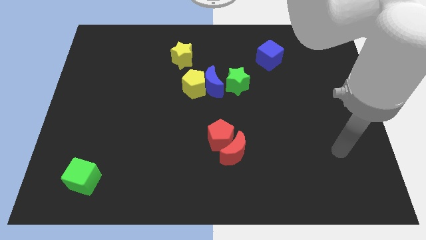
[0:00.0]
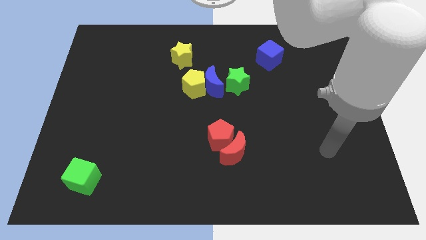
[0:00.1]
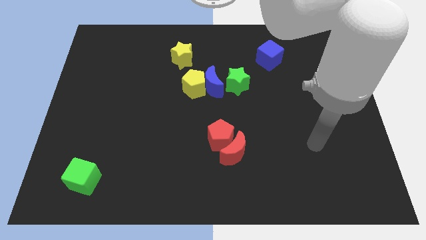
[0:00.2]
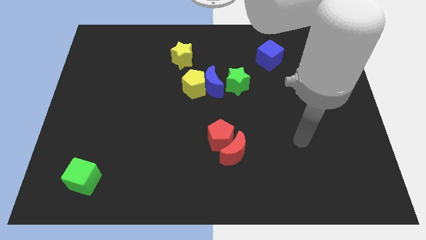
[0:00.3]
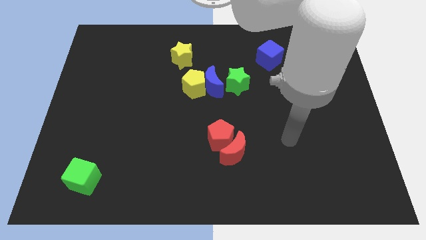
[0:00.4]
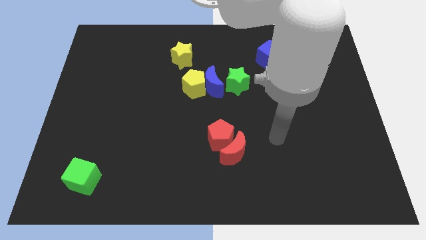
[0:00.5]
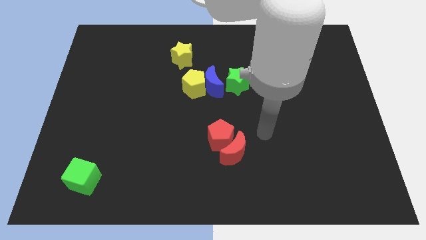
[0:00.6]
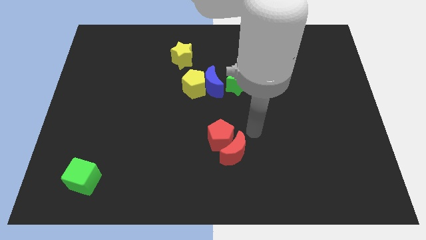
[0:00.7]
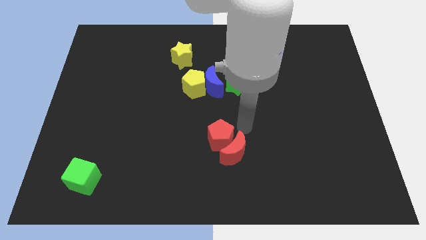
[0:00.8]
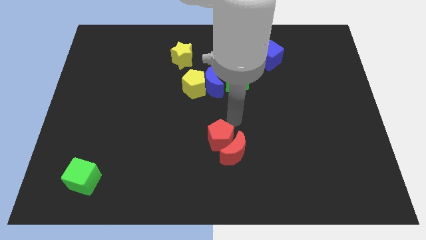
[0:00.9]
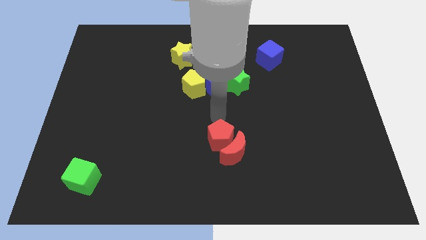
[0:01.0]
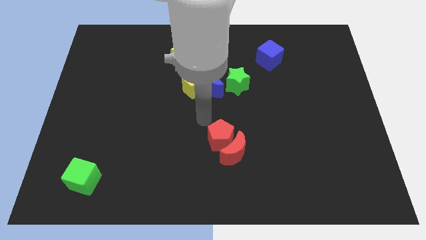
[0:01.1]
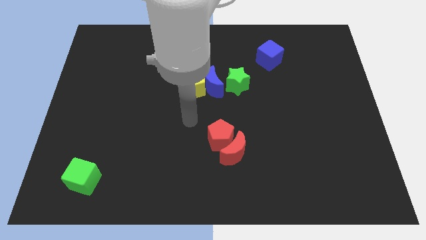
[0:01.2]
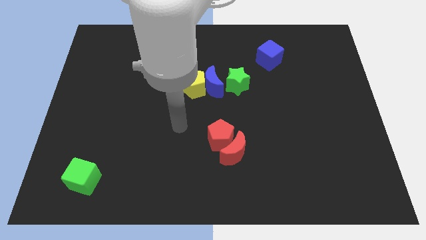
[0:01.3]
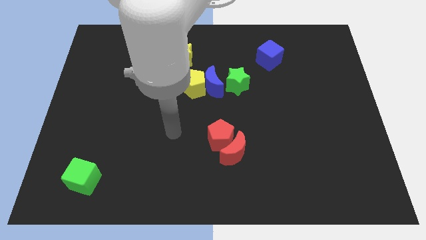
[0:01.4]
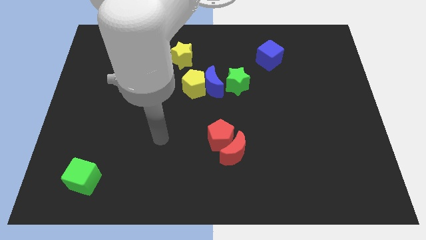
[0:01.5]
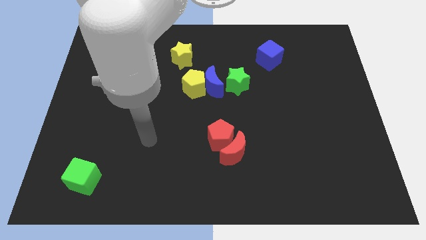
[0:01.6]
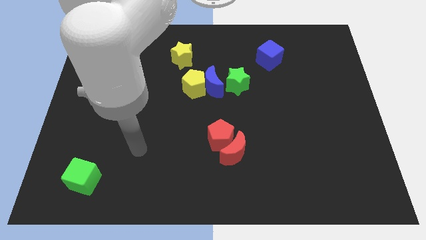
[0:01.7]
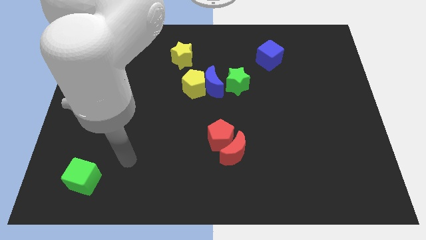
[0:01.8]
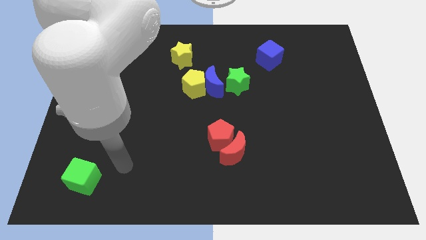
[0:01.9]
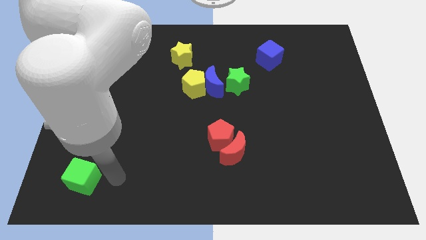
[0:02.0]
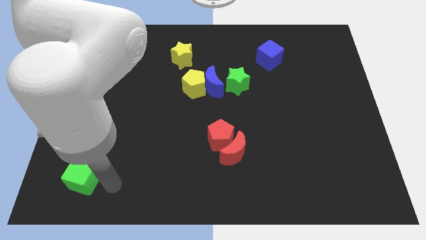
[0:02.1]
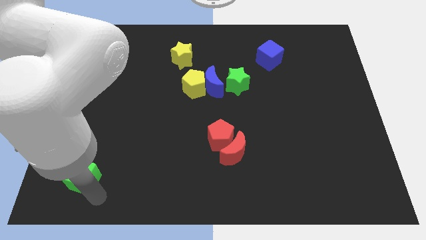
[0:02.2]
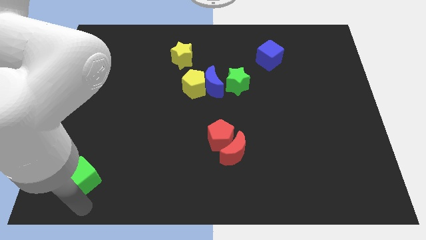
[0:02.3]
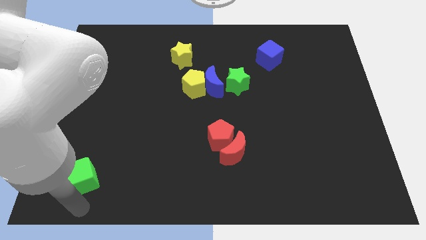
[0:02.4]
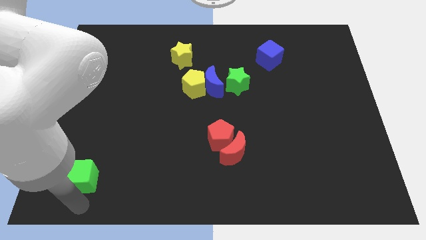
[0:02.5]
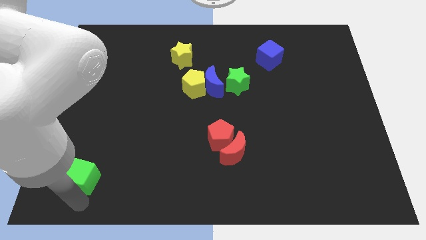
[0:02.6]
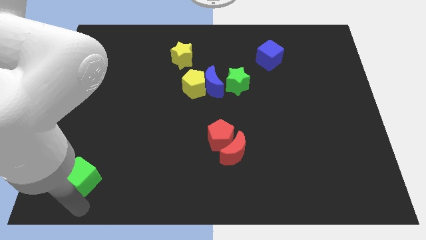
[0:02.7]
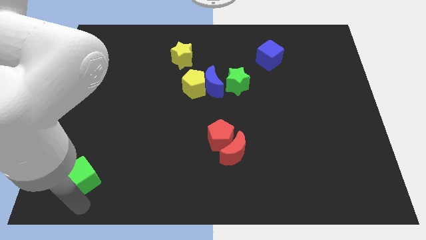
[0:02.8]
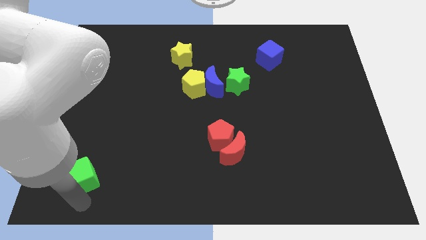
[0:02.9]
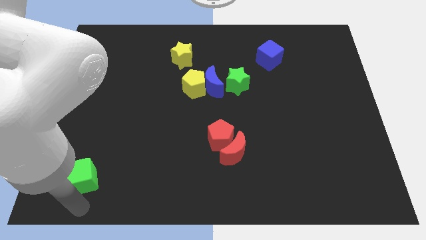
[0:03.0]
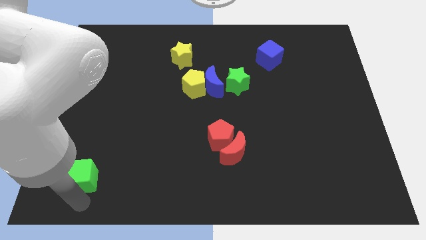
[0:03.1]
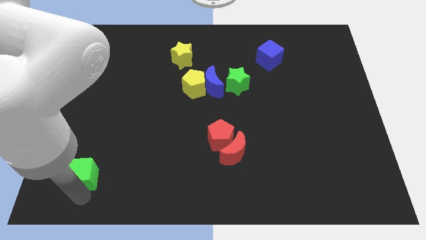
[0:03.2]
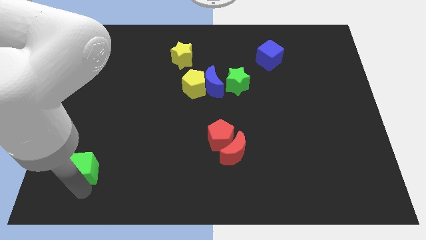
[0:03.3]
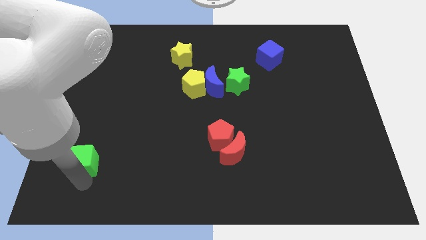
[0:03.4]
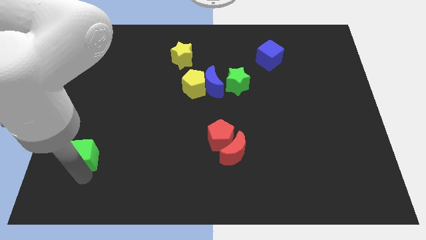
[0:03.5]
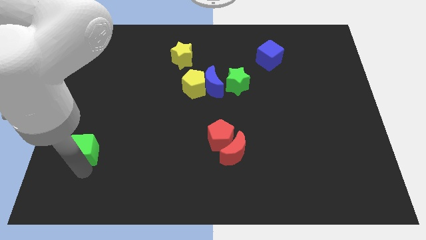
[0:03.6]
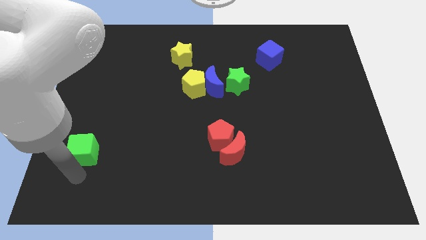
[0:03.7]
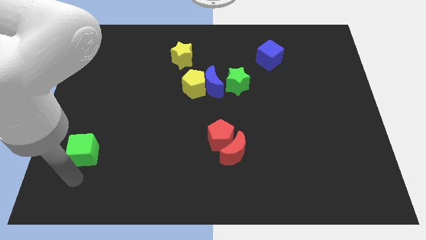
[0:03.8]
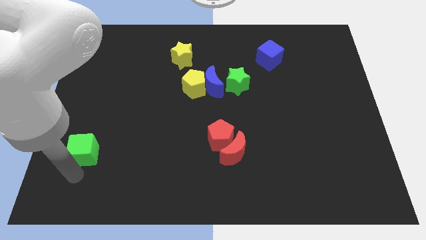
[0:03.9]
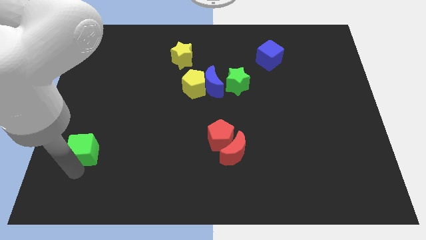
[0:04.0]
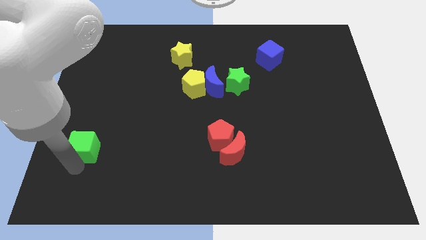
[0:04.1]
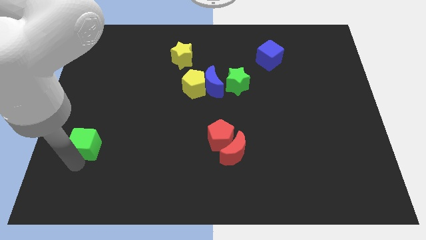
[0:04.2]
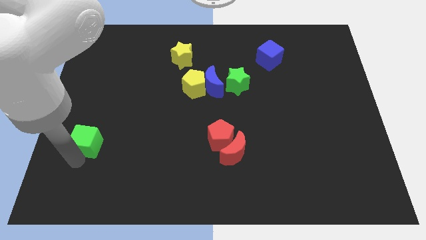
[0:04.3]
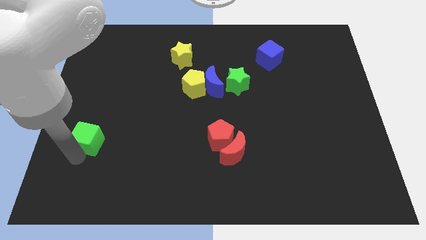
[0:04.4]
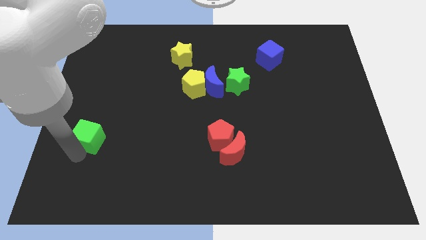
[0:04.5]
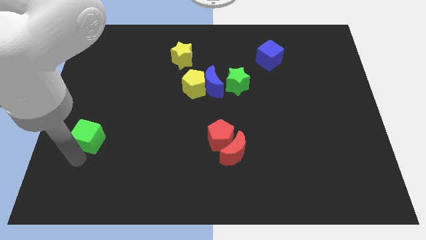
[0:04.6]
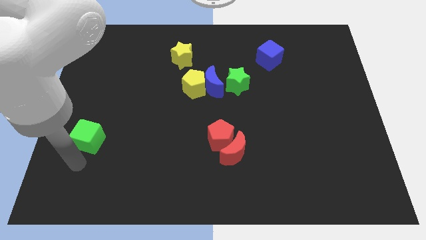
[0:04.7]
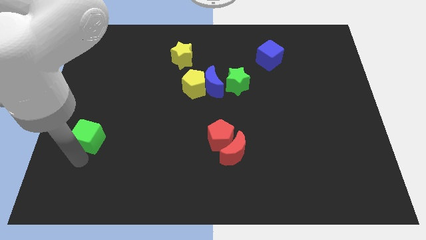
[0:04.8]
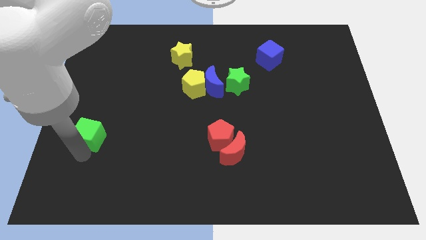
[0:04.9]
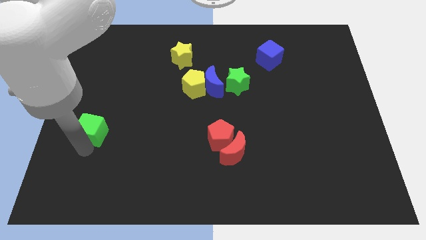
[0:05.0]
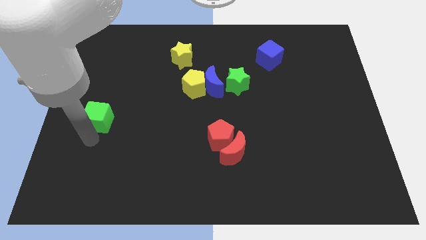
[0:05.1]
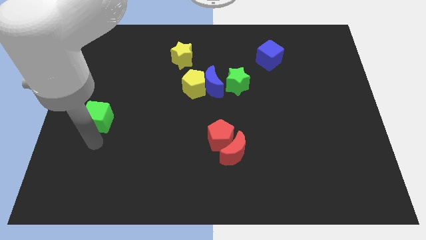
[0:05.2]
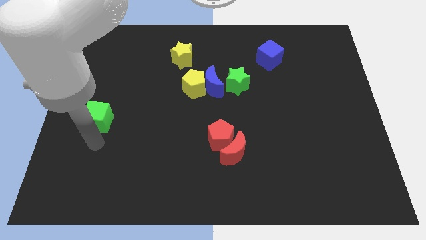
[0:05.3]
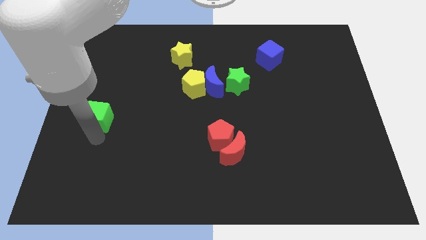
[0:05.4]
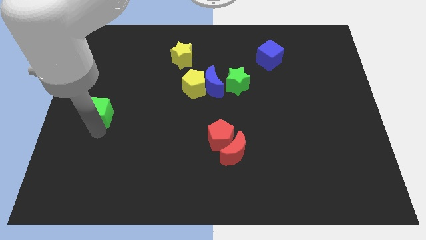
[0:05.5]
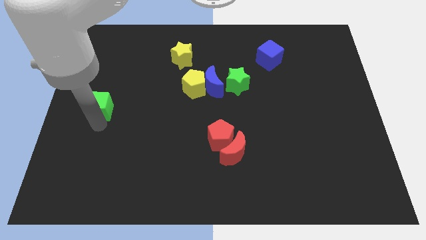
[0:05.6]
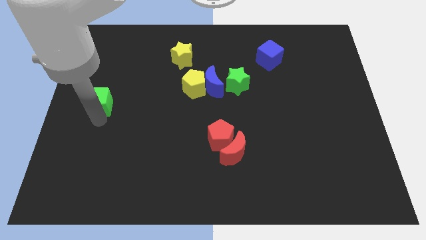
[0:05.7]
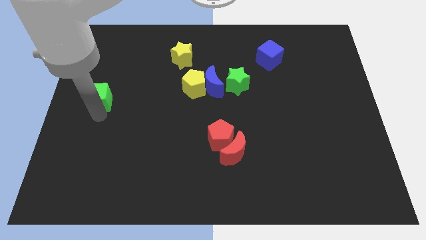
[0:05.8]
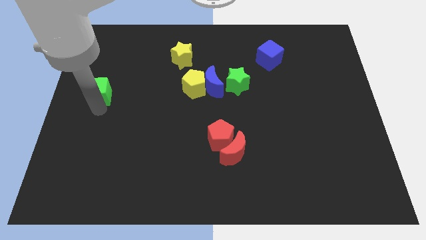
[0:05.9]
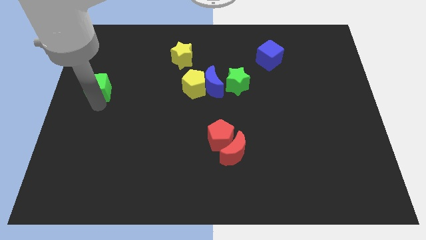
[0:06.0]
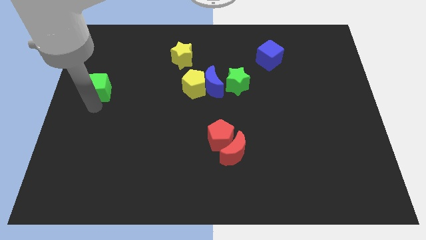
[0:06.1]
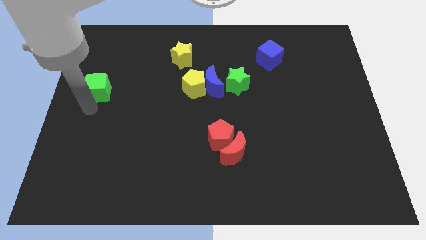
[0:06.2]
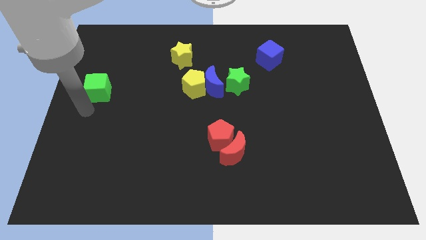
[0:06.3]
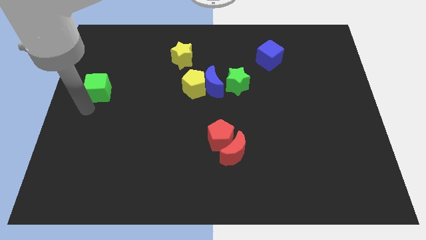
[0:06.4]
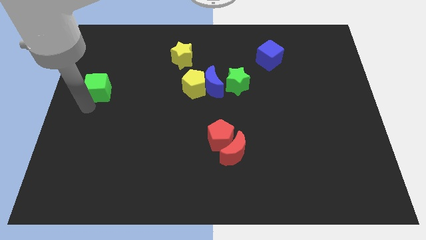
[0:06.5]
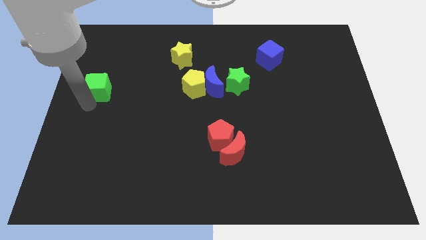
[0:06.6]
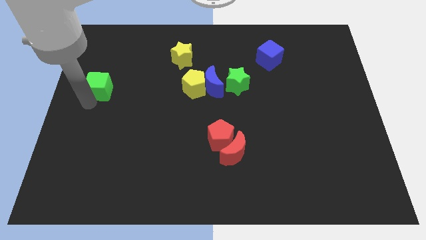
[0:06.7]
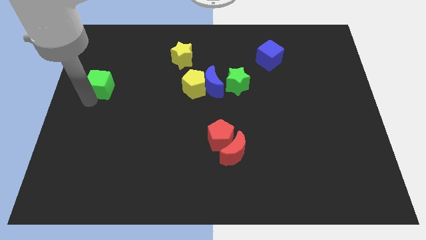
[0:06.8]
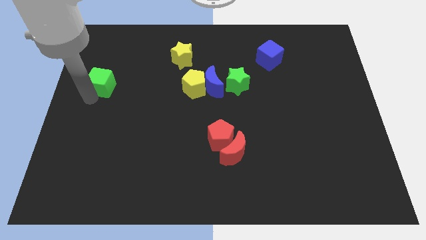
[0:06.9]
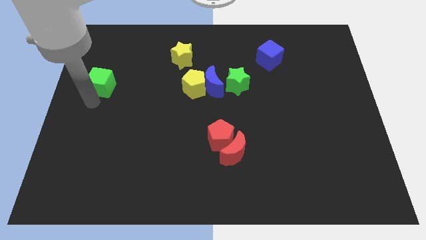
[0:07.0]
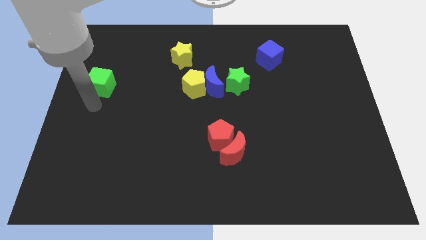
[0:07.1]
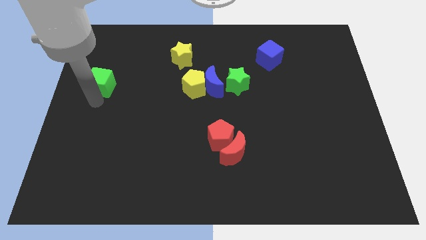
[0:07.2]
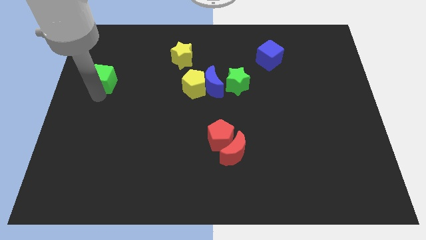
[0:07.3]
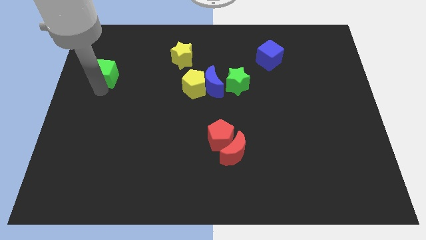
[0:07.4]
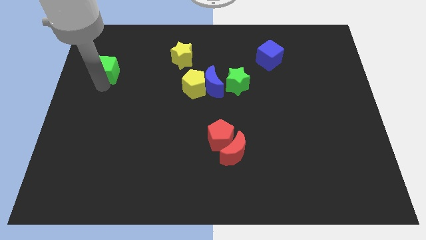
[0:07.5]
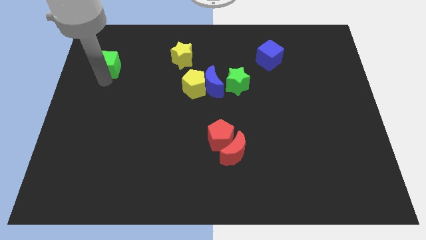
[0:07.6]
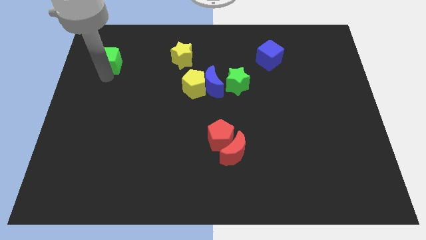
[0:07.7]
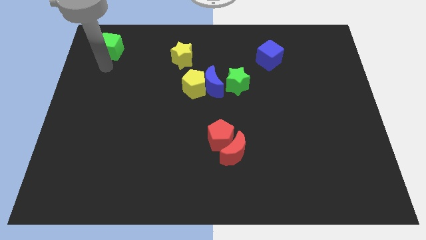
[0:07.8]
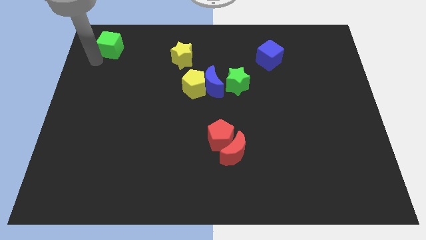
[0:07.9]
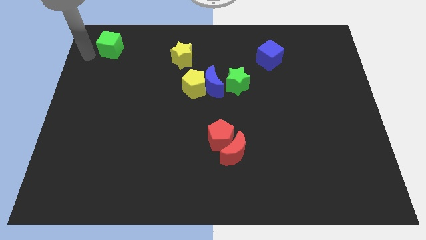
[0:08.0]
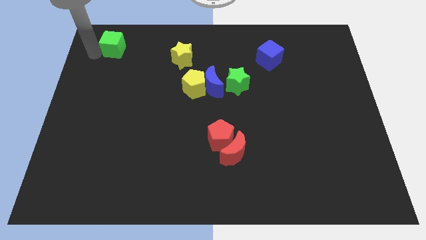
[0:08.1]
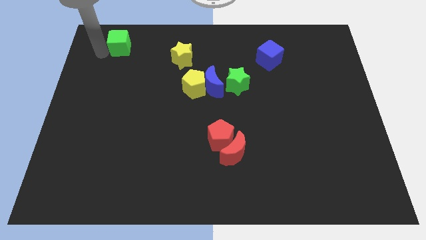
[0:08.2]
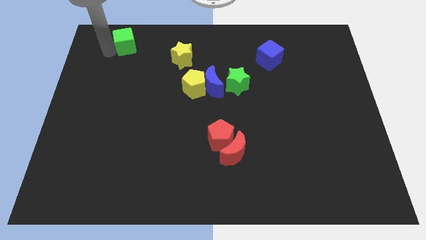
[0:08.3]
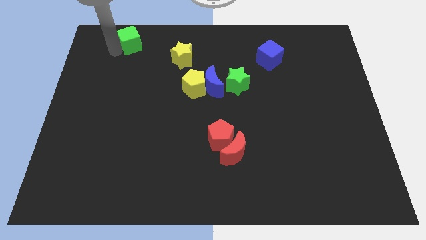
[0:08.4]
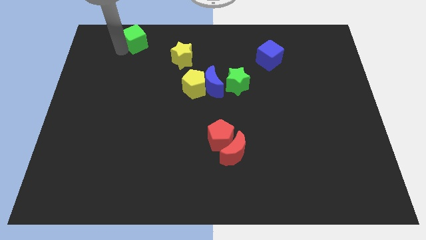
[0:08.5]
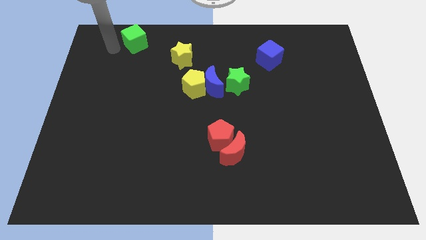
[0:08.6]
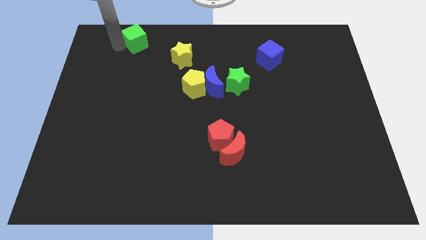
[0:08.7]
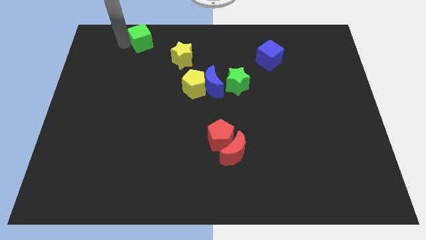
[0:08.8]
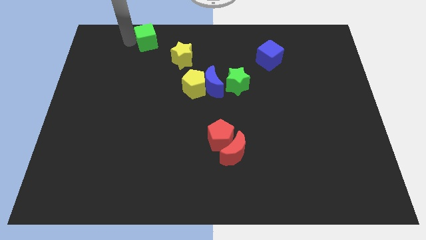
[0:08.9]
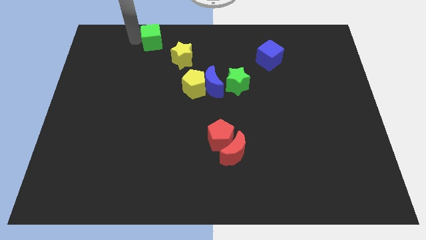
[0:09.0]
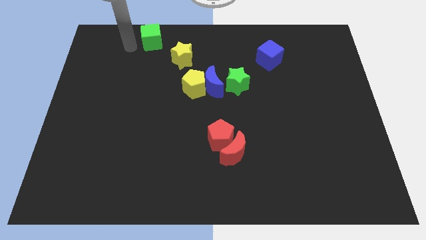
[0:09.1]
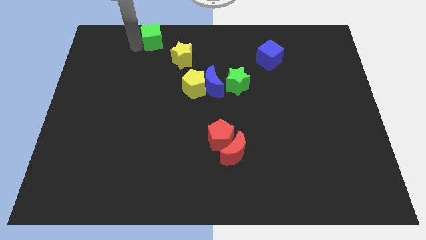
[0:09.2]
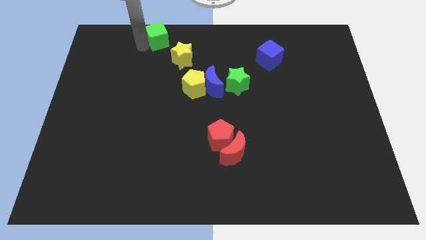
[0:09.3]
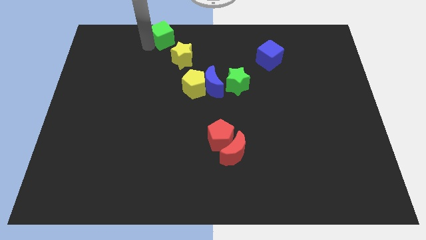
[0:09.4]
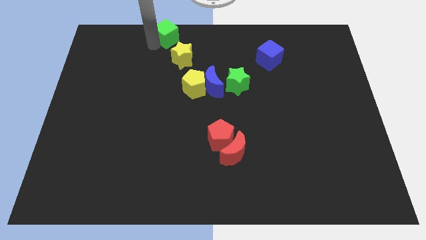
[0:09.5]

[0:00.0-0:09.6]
push the green cube to the top side
